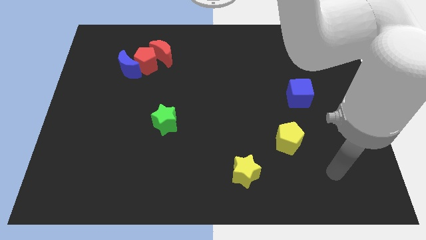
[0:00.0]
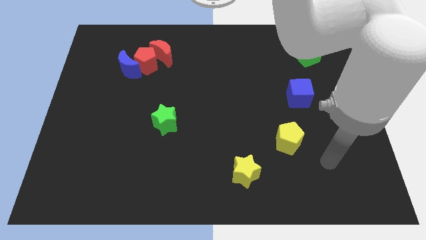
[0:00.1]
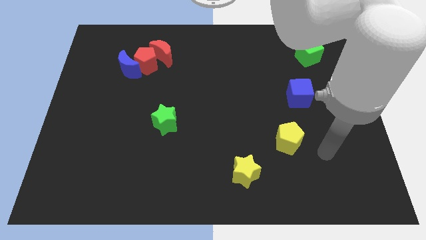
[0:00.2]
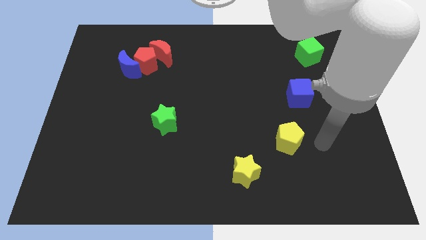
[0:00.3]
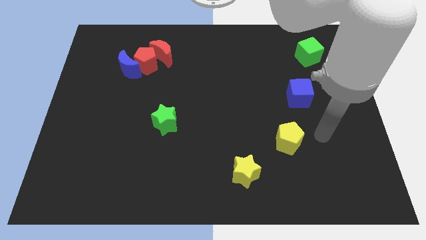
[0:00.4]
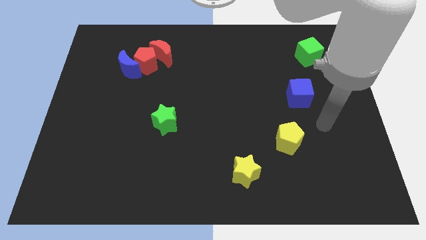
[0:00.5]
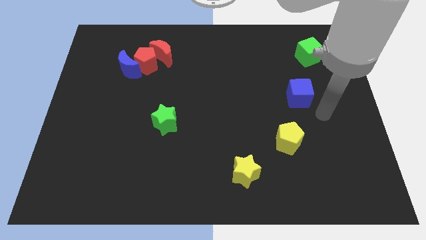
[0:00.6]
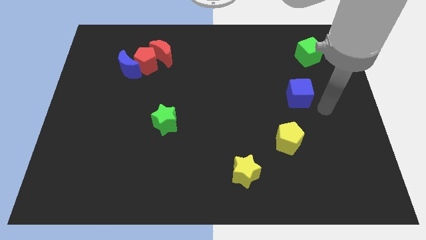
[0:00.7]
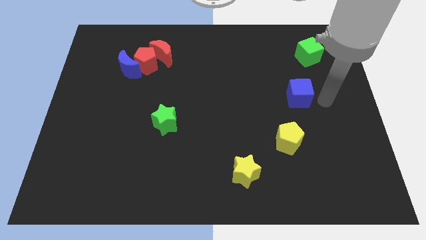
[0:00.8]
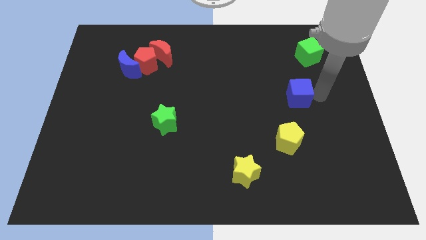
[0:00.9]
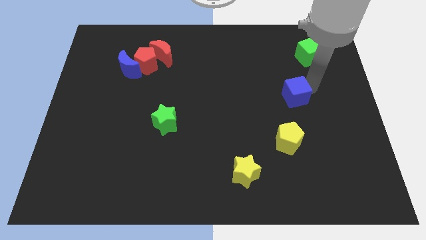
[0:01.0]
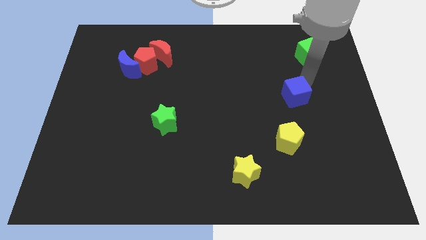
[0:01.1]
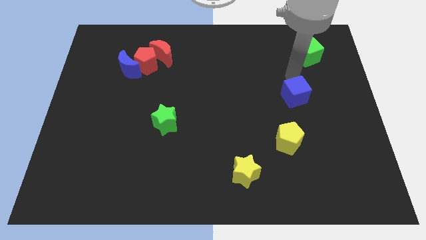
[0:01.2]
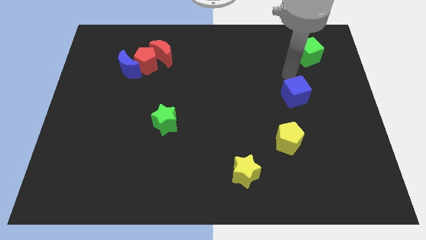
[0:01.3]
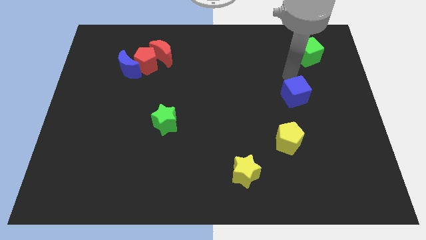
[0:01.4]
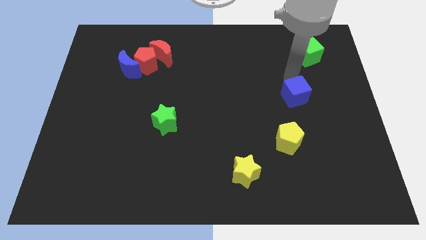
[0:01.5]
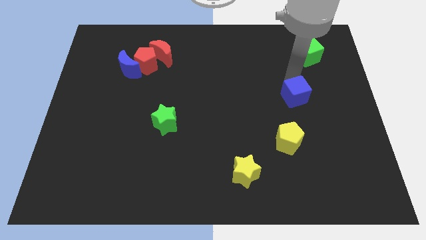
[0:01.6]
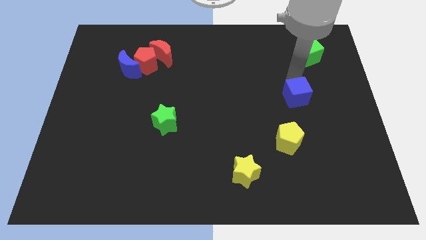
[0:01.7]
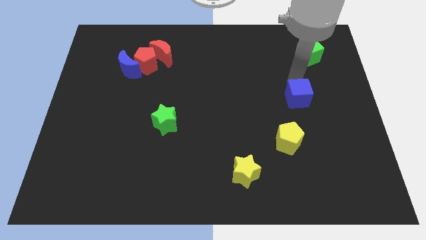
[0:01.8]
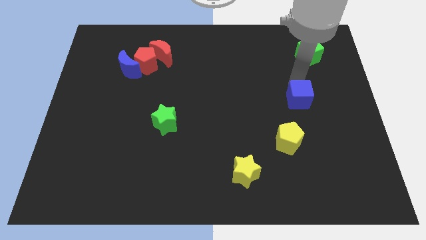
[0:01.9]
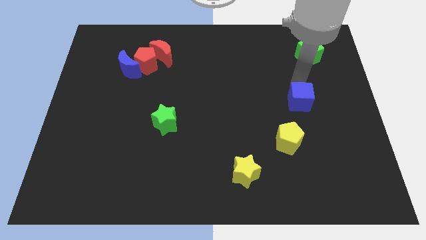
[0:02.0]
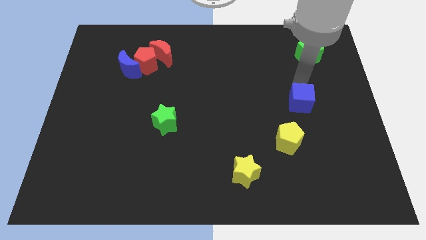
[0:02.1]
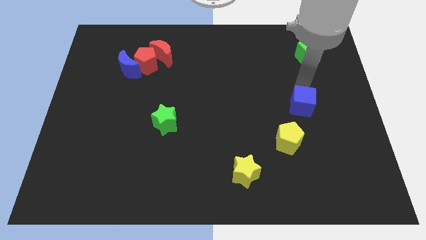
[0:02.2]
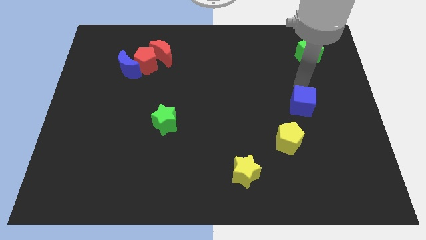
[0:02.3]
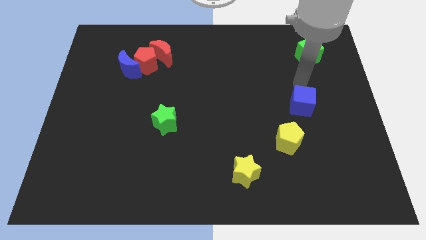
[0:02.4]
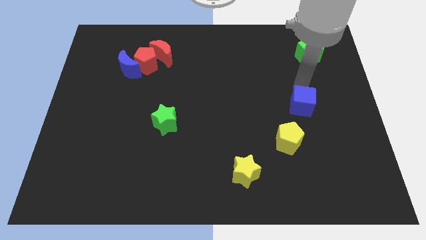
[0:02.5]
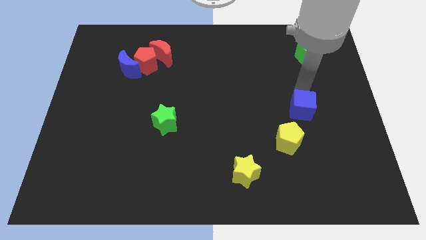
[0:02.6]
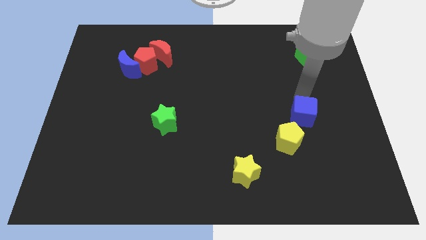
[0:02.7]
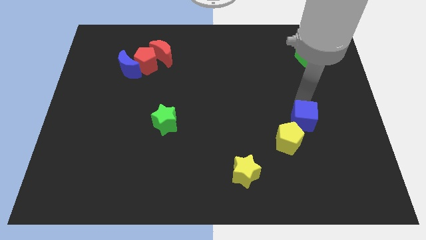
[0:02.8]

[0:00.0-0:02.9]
push the blue cube somewhat down

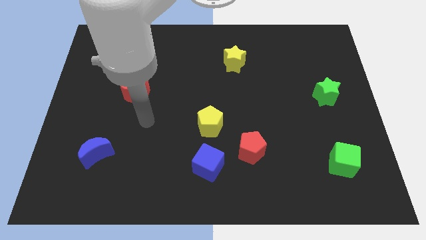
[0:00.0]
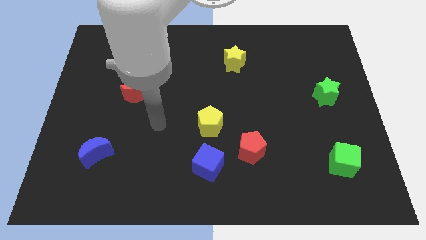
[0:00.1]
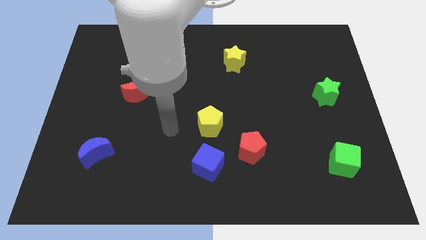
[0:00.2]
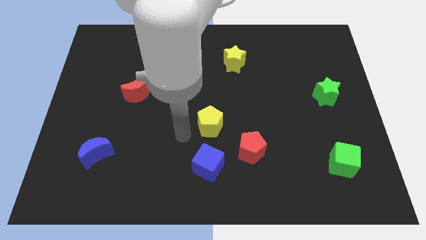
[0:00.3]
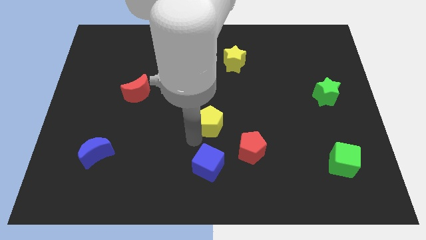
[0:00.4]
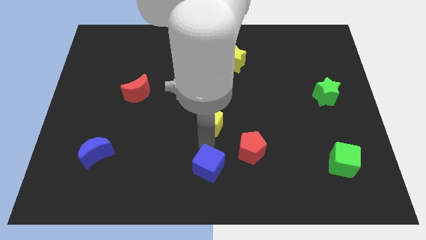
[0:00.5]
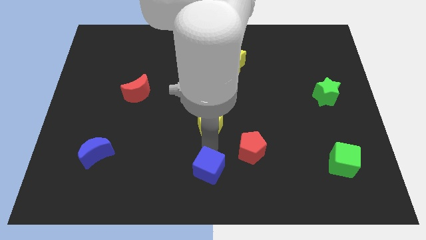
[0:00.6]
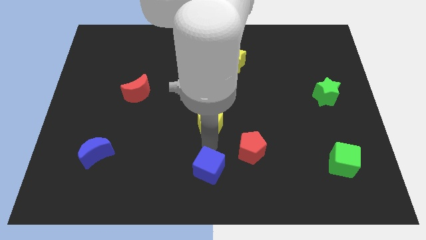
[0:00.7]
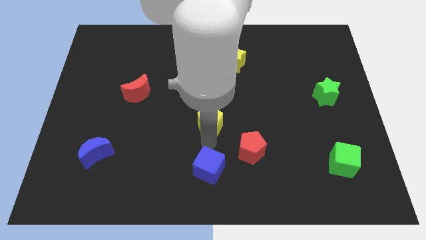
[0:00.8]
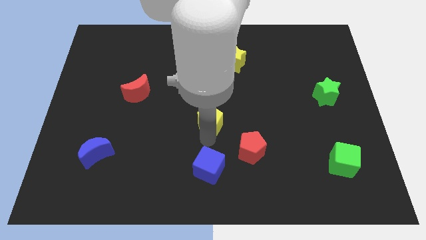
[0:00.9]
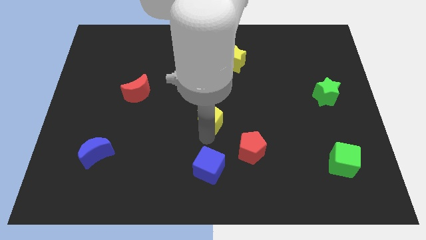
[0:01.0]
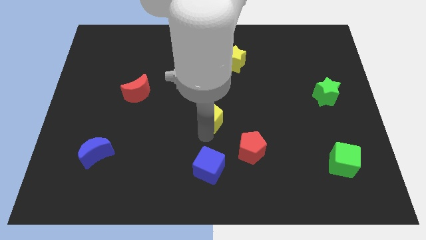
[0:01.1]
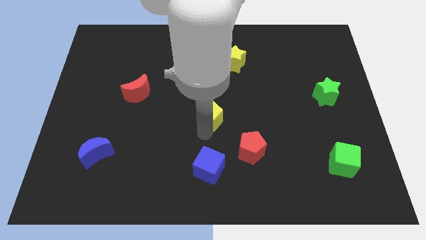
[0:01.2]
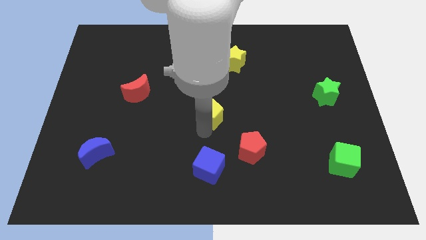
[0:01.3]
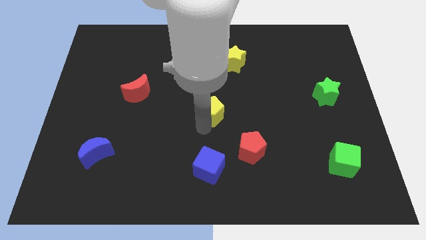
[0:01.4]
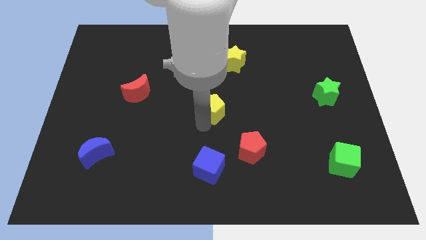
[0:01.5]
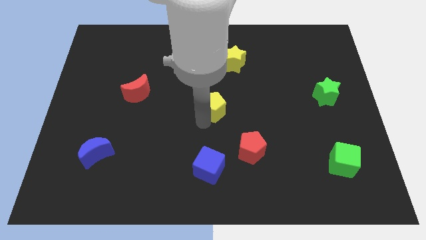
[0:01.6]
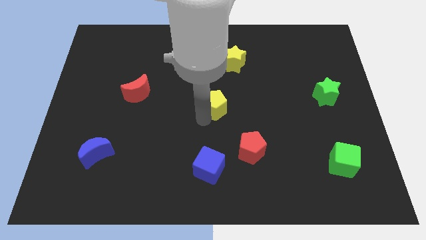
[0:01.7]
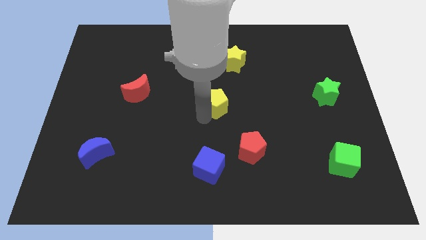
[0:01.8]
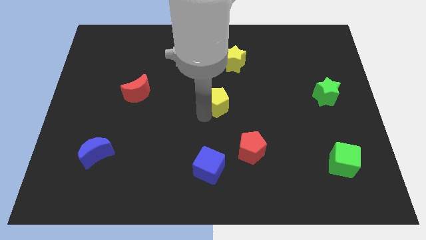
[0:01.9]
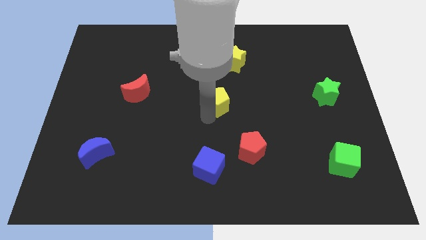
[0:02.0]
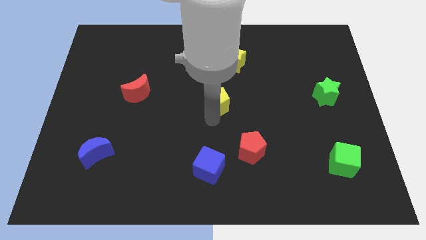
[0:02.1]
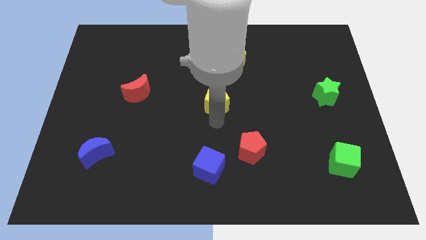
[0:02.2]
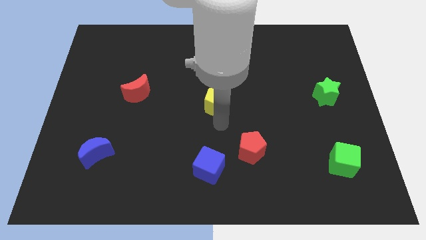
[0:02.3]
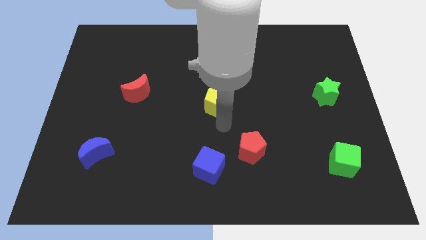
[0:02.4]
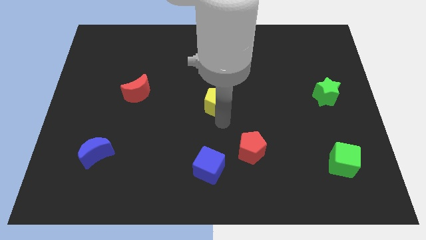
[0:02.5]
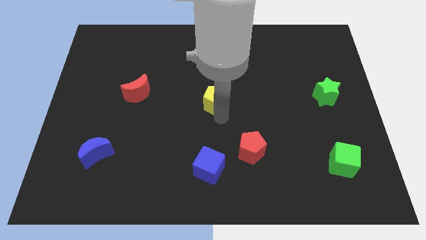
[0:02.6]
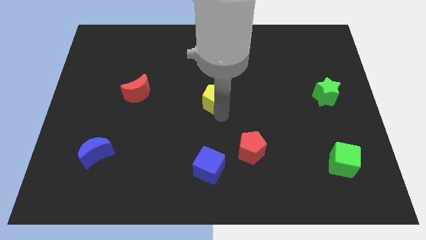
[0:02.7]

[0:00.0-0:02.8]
move the yellow pentagon up a little bit

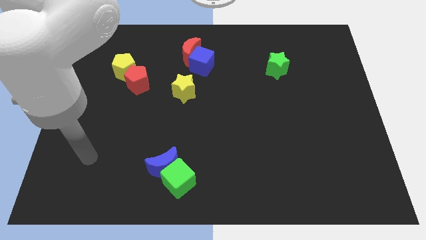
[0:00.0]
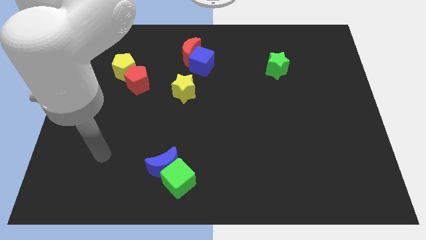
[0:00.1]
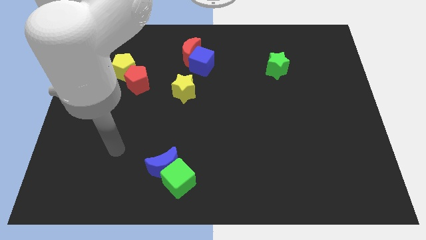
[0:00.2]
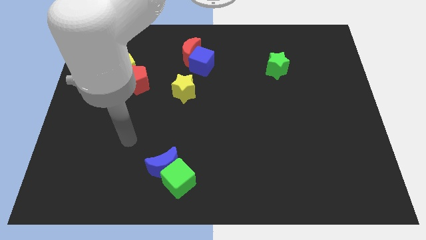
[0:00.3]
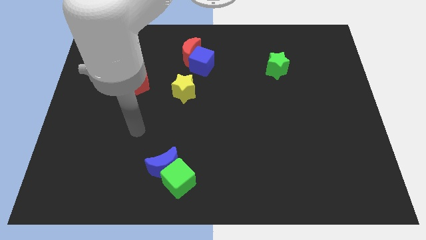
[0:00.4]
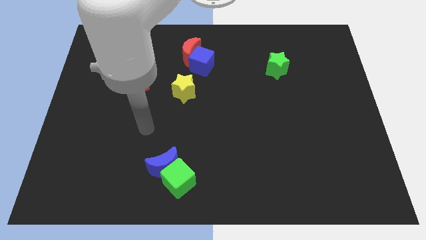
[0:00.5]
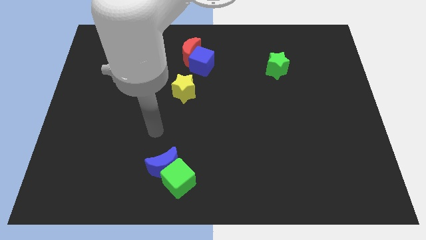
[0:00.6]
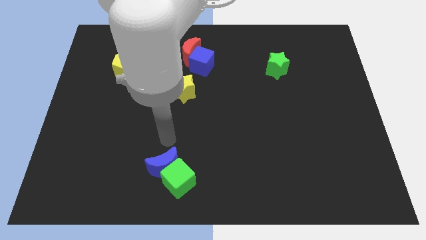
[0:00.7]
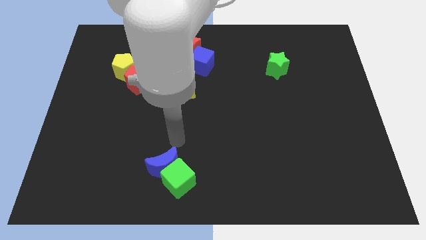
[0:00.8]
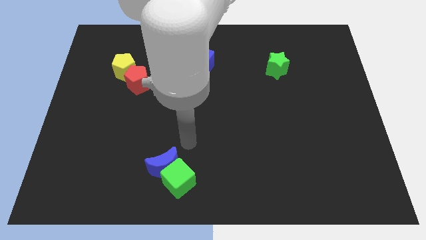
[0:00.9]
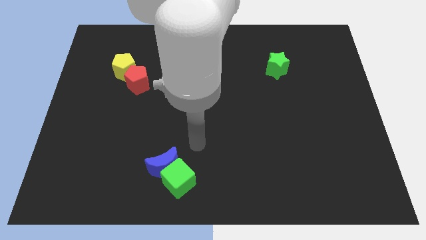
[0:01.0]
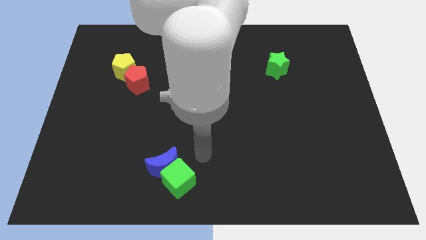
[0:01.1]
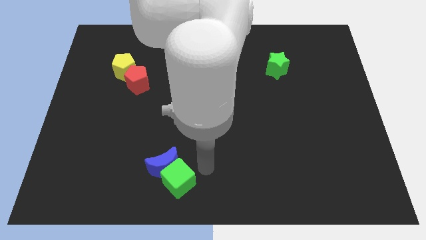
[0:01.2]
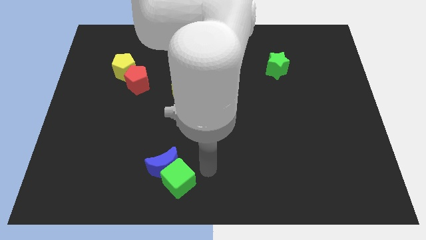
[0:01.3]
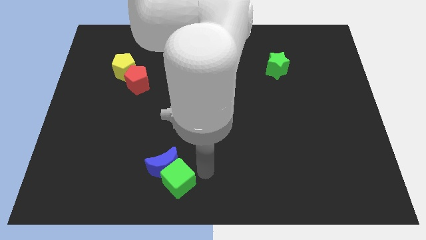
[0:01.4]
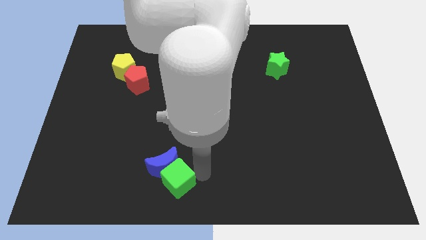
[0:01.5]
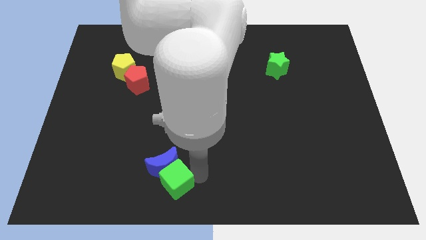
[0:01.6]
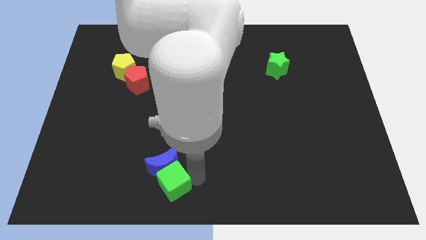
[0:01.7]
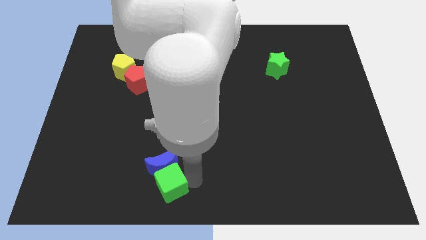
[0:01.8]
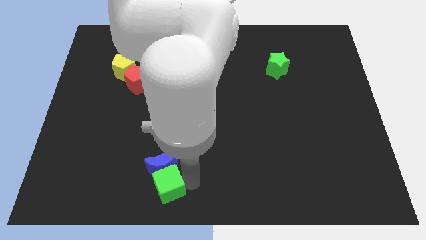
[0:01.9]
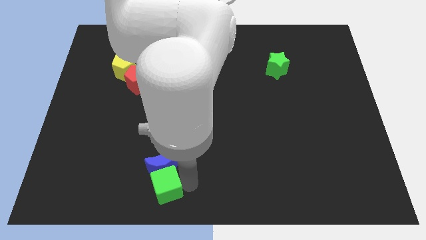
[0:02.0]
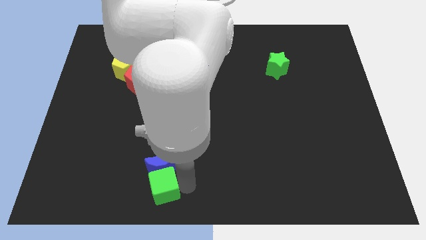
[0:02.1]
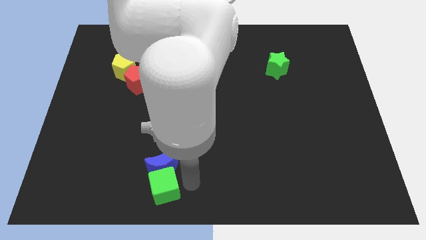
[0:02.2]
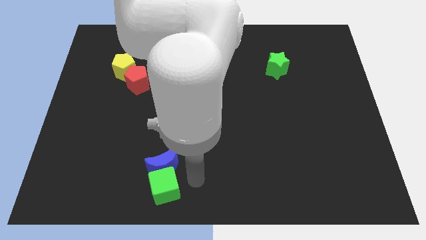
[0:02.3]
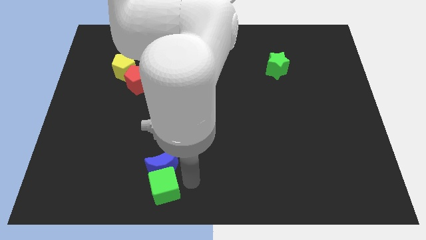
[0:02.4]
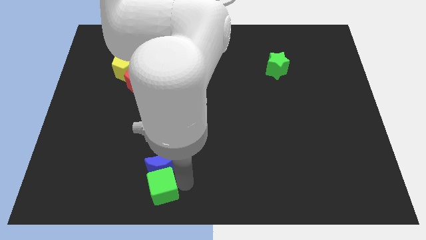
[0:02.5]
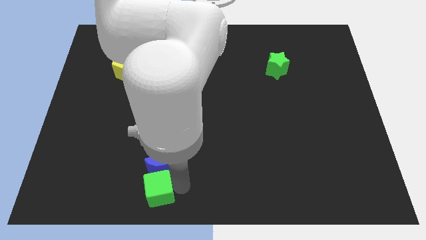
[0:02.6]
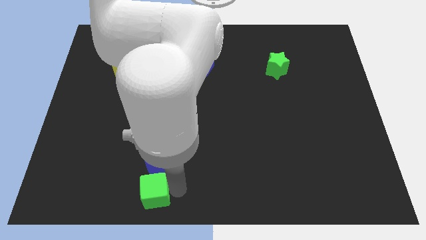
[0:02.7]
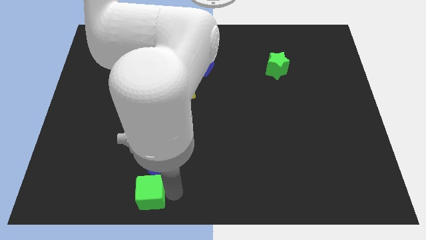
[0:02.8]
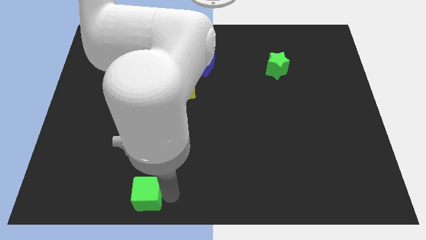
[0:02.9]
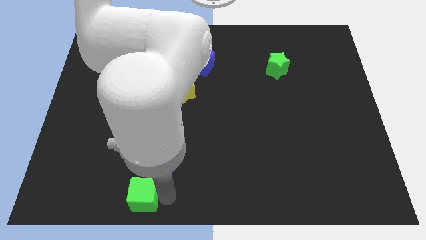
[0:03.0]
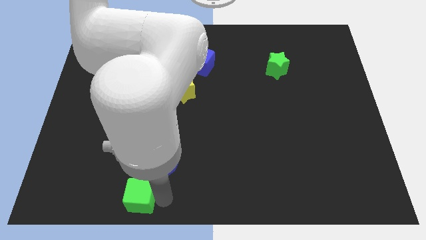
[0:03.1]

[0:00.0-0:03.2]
slide the green cube to the left slightly
